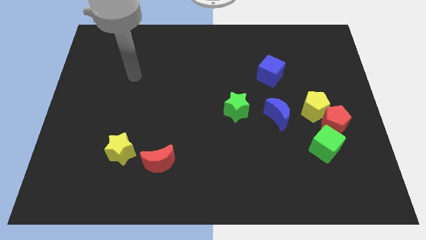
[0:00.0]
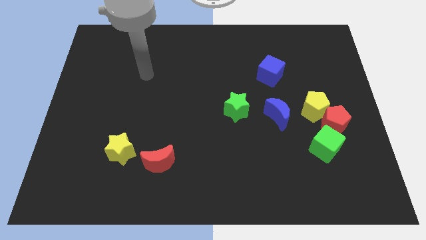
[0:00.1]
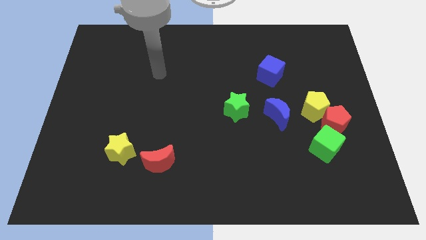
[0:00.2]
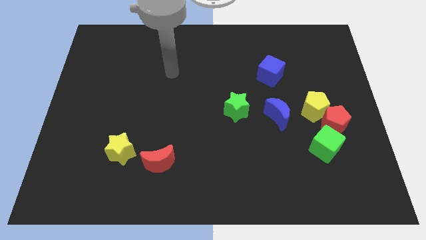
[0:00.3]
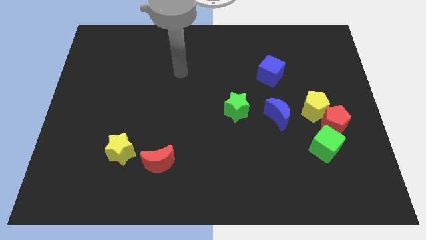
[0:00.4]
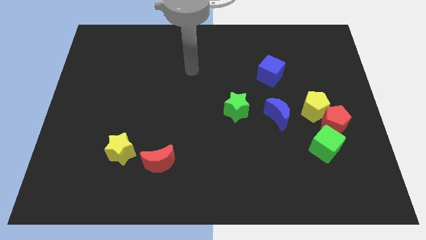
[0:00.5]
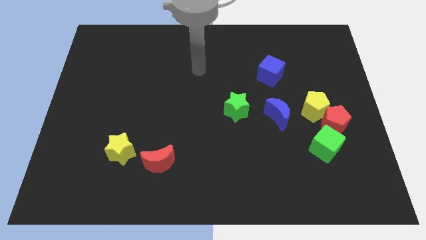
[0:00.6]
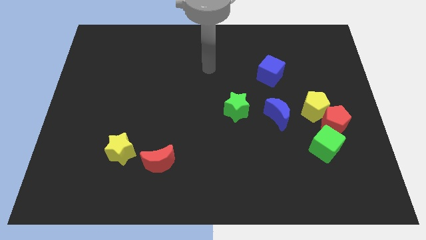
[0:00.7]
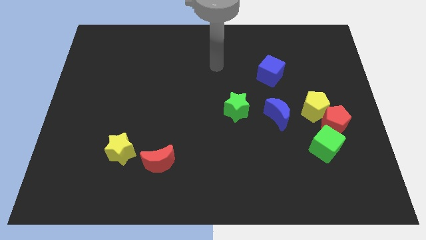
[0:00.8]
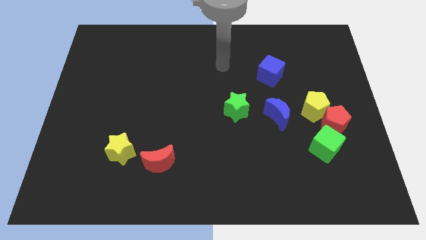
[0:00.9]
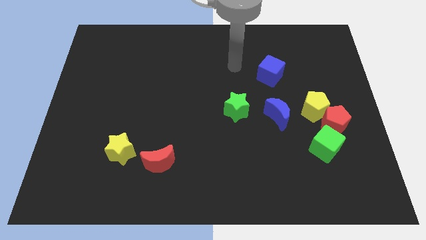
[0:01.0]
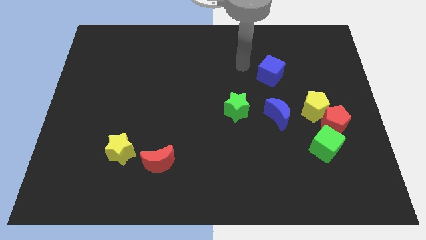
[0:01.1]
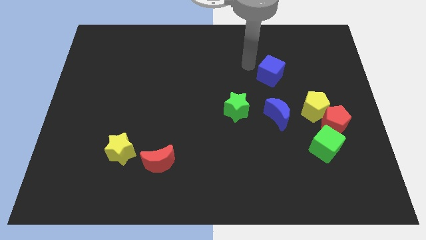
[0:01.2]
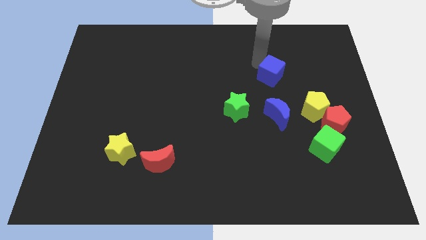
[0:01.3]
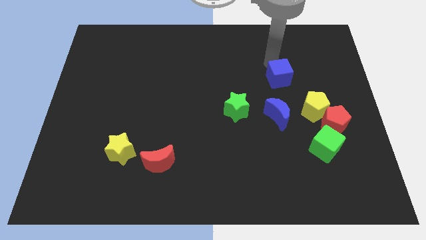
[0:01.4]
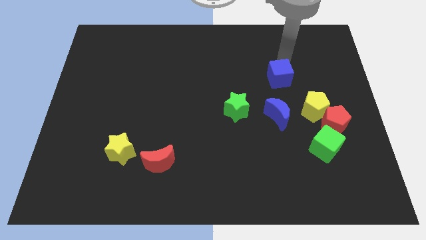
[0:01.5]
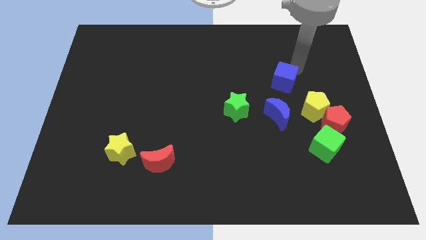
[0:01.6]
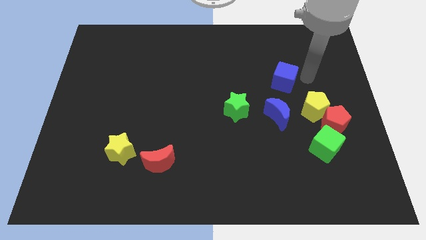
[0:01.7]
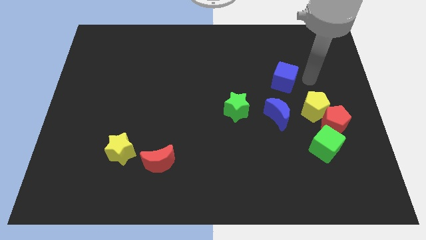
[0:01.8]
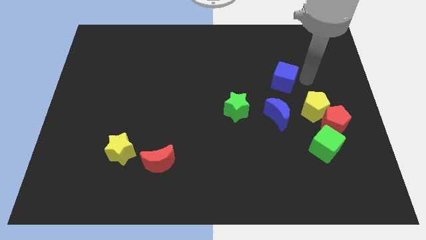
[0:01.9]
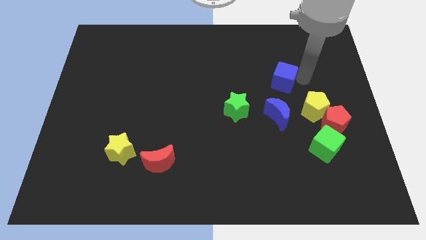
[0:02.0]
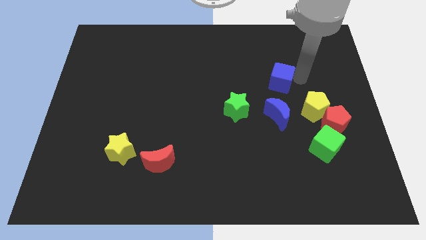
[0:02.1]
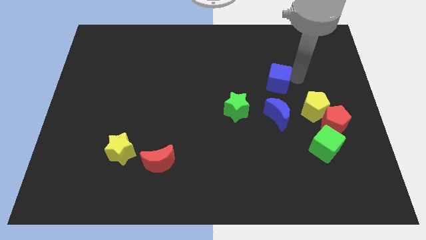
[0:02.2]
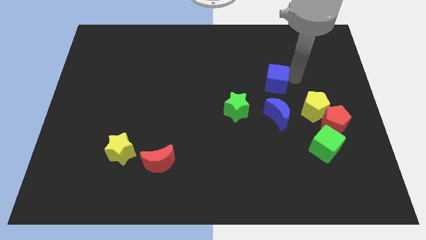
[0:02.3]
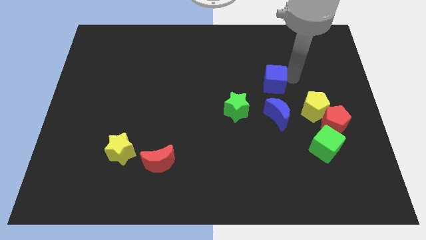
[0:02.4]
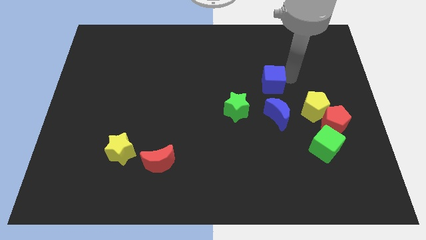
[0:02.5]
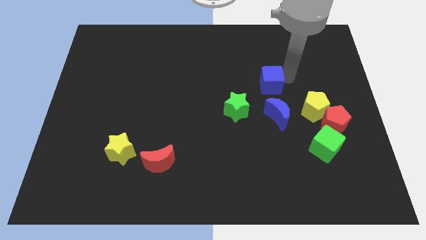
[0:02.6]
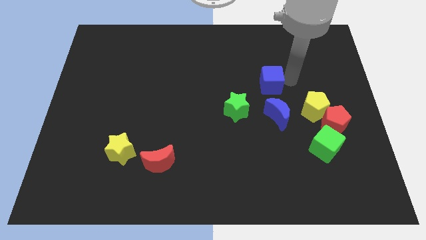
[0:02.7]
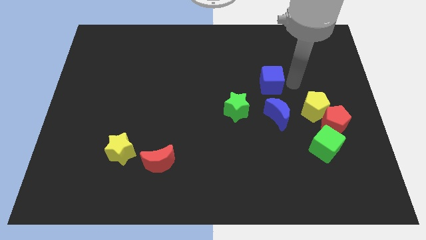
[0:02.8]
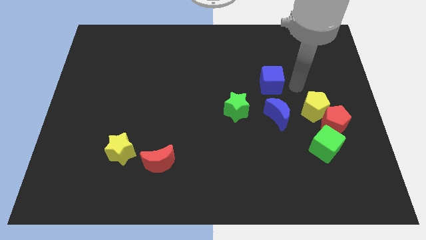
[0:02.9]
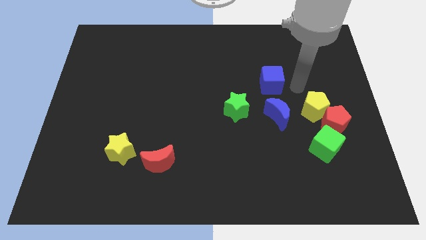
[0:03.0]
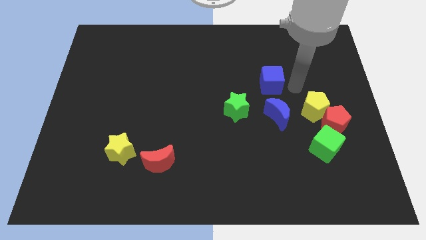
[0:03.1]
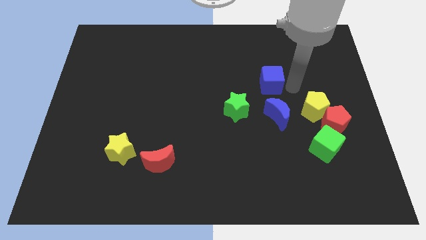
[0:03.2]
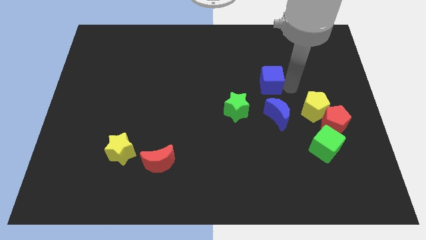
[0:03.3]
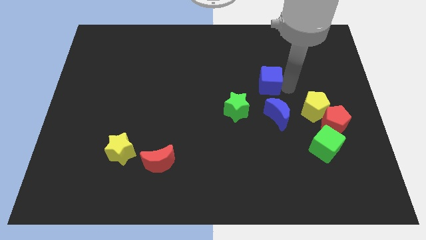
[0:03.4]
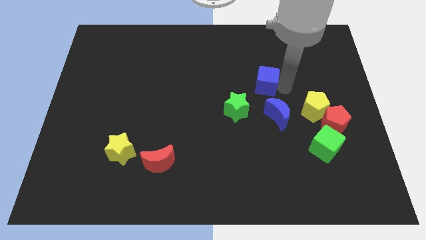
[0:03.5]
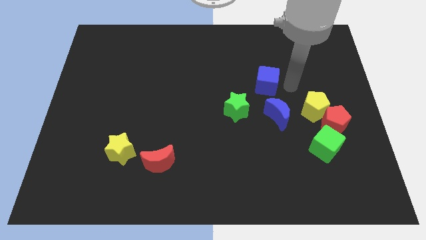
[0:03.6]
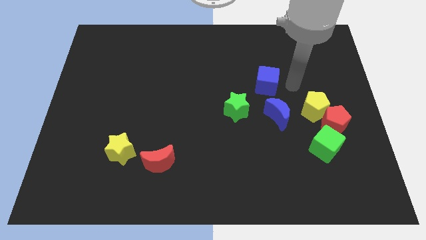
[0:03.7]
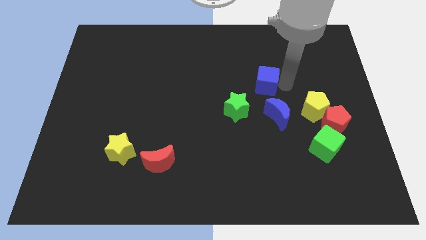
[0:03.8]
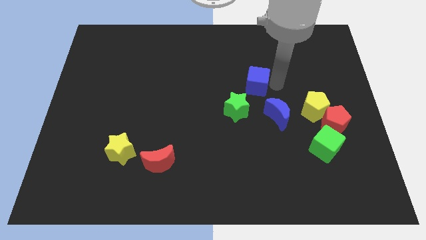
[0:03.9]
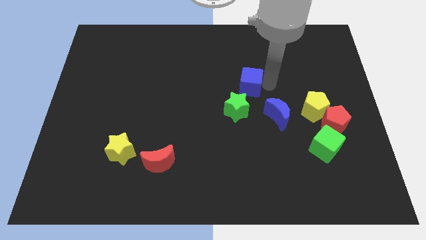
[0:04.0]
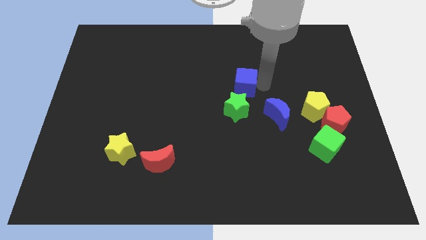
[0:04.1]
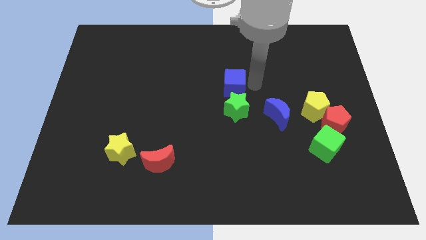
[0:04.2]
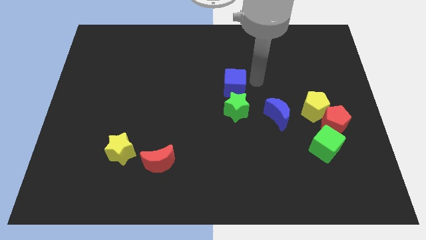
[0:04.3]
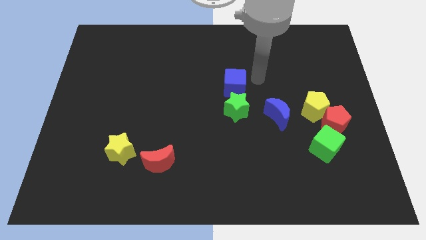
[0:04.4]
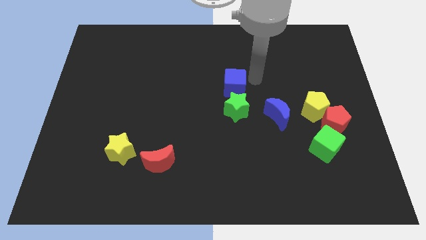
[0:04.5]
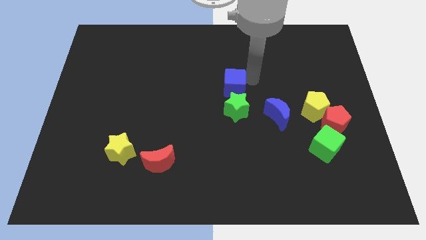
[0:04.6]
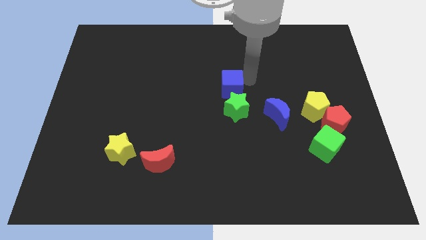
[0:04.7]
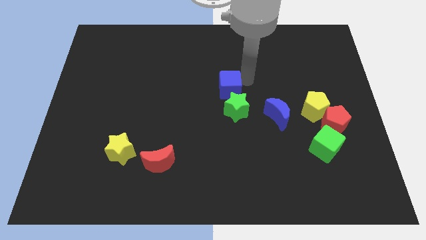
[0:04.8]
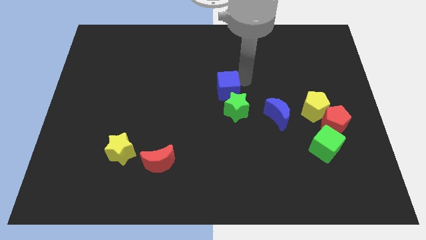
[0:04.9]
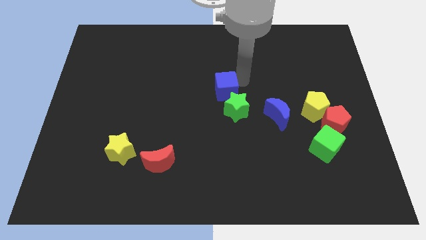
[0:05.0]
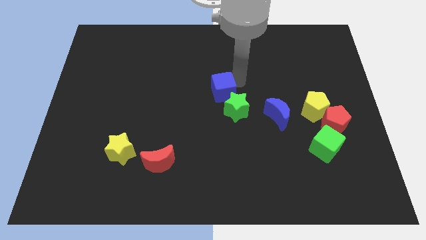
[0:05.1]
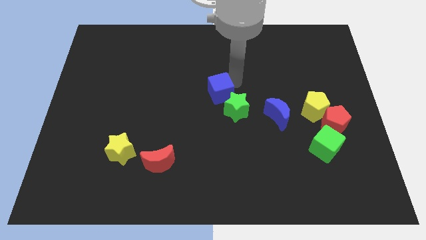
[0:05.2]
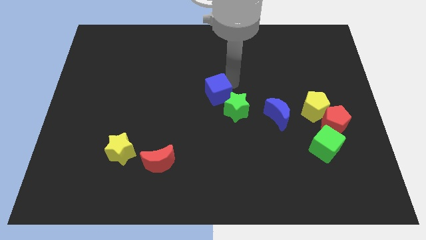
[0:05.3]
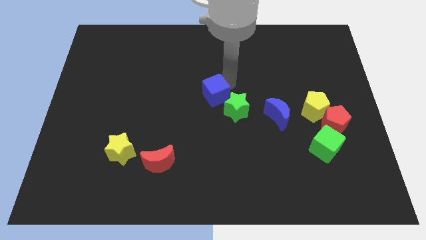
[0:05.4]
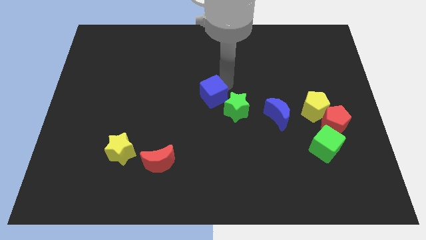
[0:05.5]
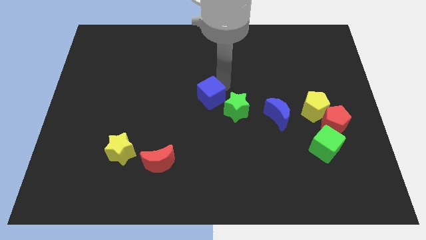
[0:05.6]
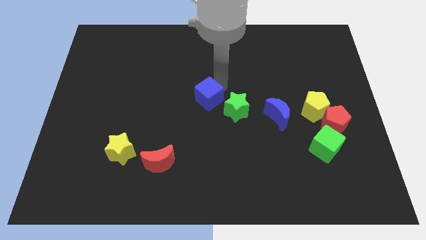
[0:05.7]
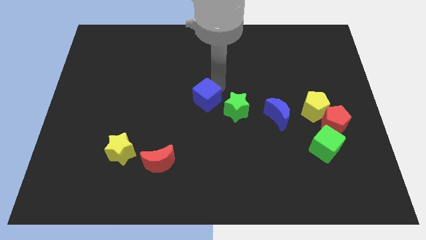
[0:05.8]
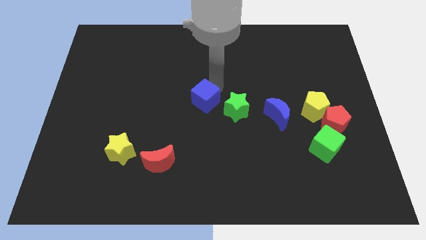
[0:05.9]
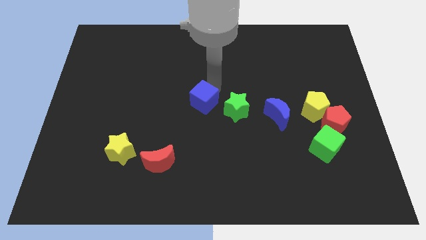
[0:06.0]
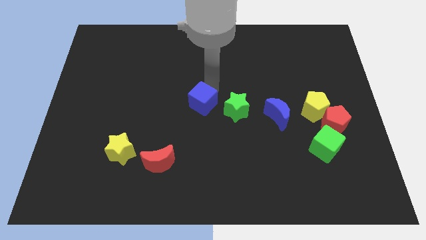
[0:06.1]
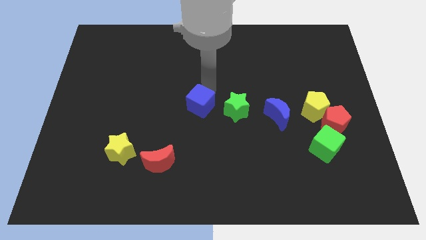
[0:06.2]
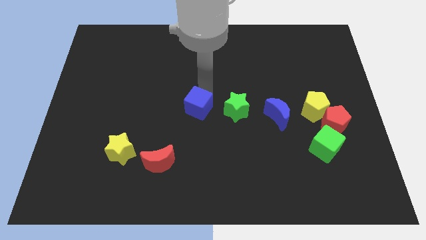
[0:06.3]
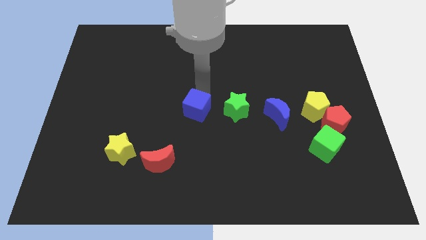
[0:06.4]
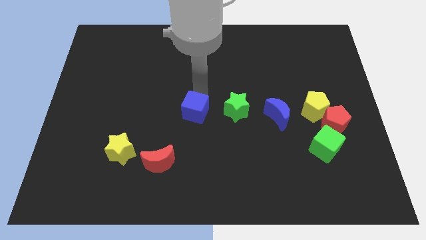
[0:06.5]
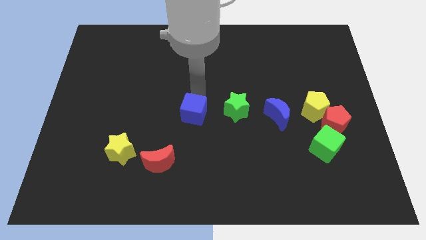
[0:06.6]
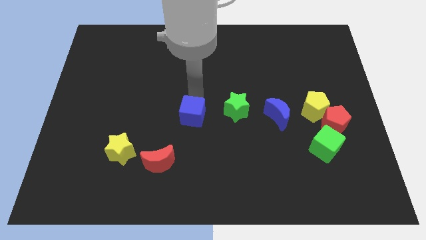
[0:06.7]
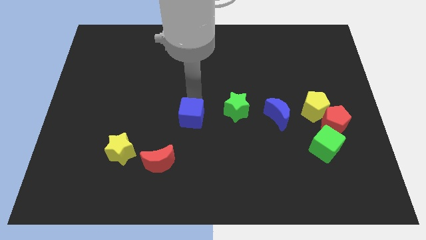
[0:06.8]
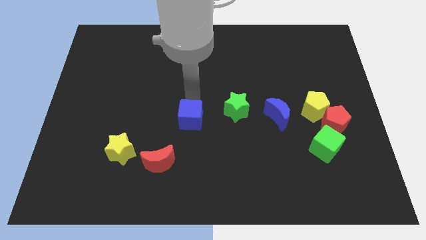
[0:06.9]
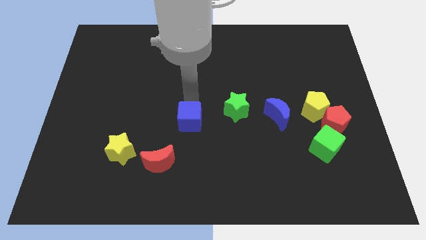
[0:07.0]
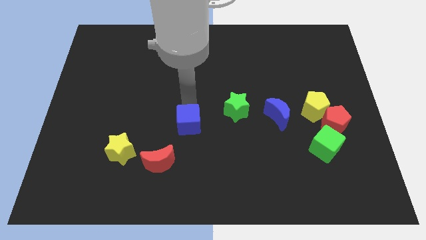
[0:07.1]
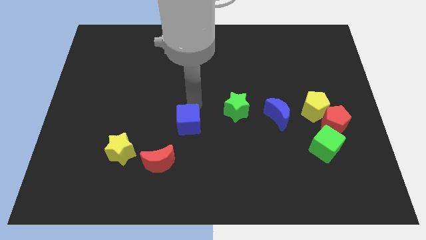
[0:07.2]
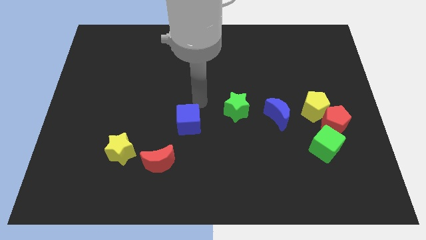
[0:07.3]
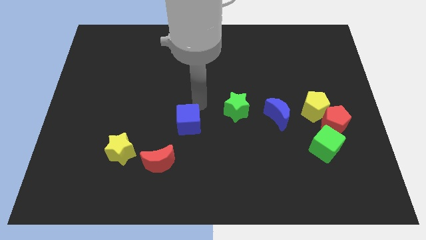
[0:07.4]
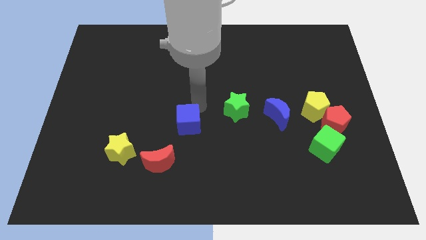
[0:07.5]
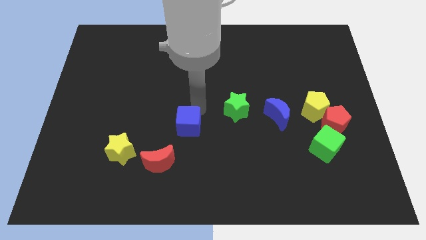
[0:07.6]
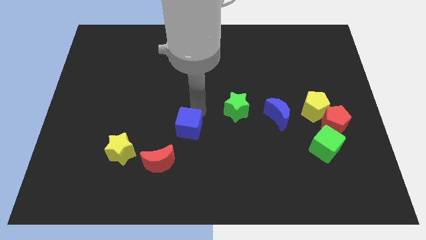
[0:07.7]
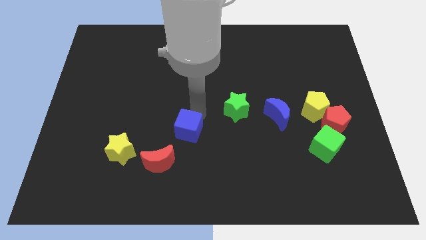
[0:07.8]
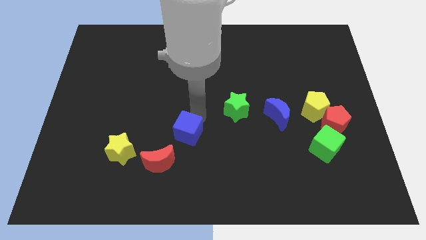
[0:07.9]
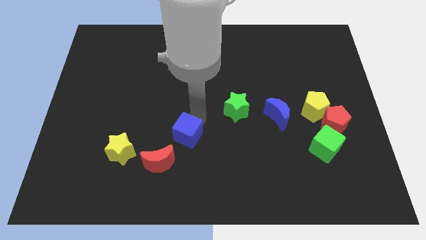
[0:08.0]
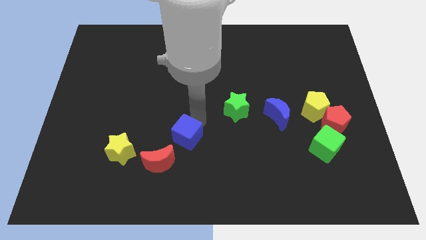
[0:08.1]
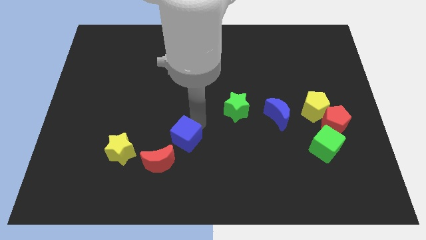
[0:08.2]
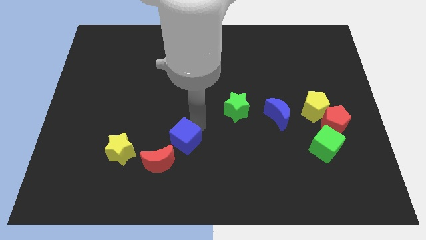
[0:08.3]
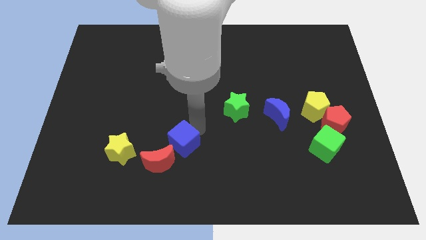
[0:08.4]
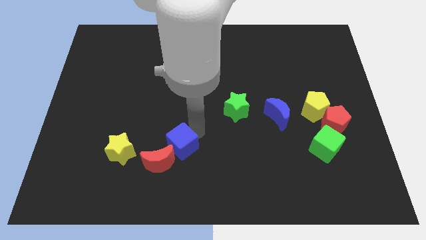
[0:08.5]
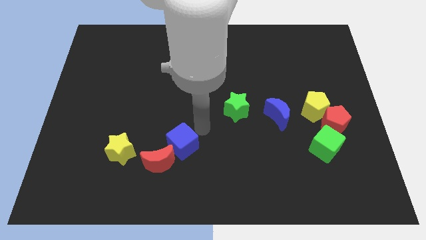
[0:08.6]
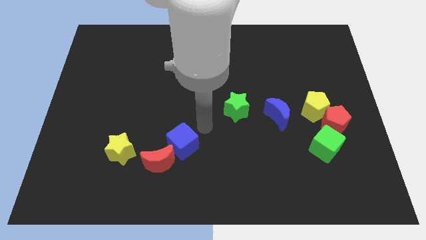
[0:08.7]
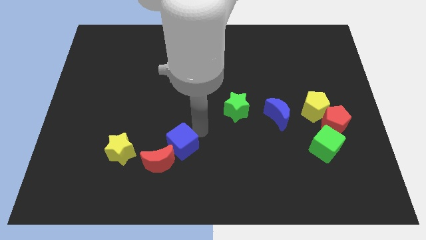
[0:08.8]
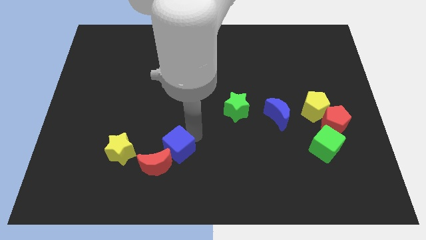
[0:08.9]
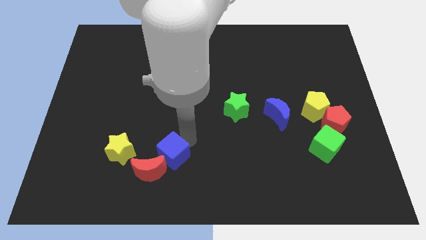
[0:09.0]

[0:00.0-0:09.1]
put the blue cube to the red moon
